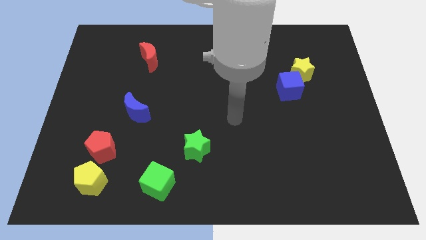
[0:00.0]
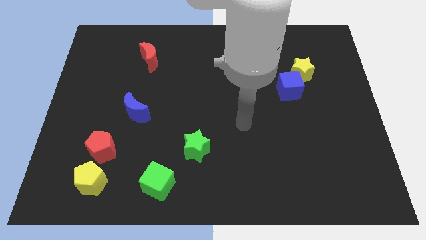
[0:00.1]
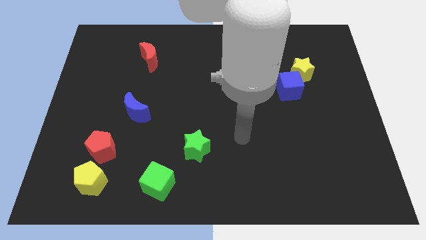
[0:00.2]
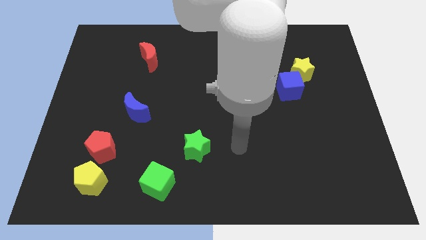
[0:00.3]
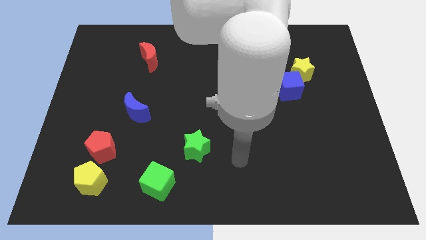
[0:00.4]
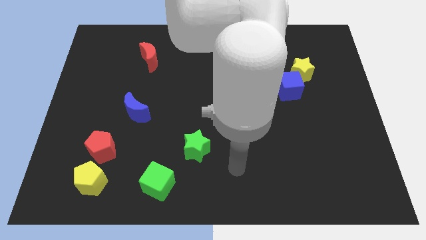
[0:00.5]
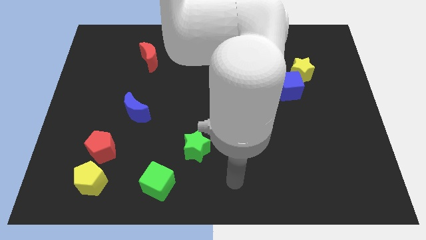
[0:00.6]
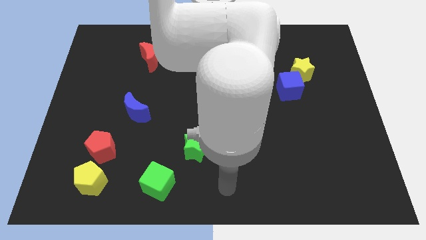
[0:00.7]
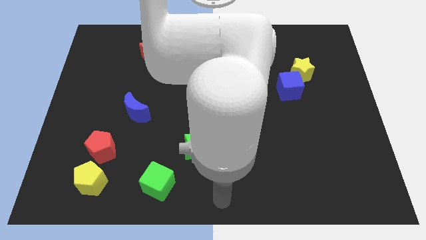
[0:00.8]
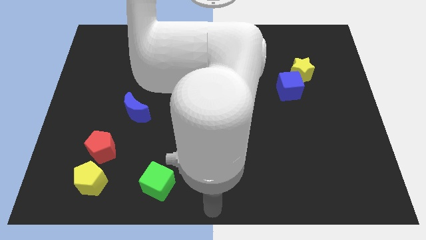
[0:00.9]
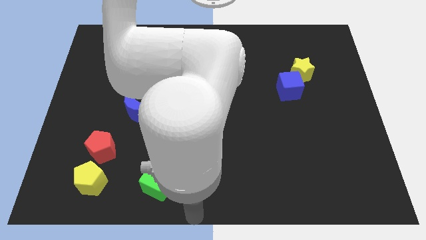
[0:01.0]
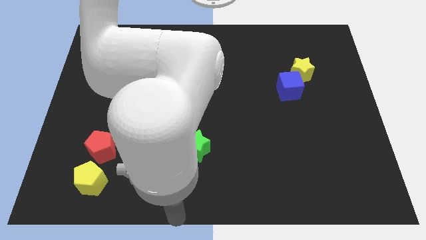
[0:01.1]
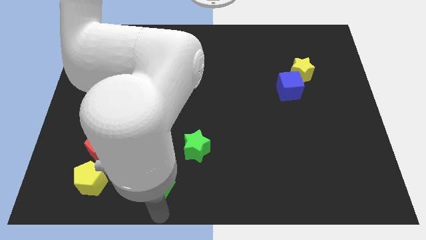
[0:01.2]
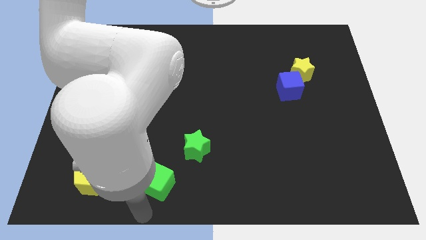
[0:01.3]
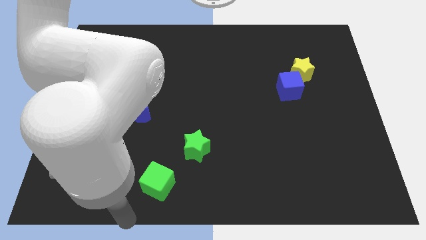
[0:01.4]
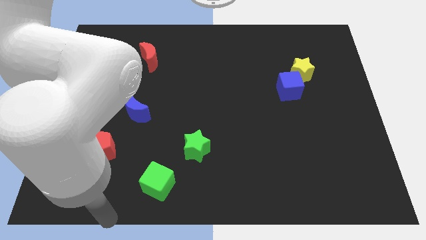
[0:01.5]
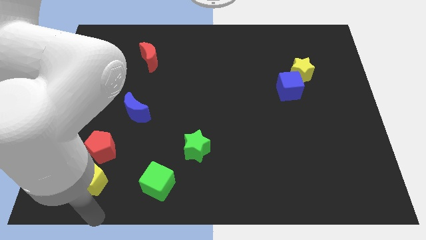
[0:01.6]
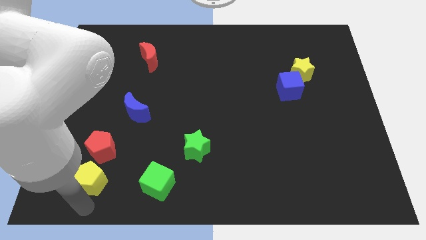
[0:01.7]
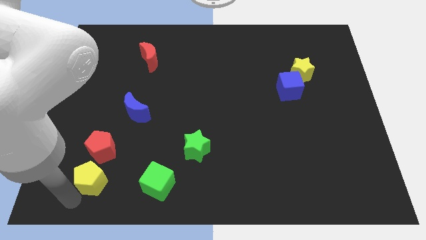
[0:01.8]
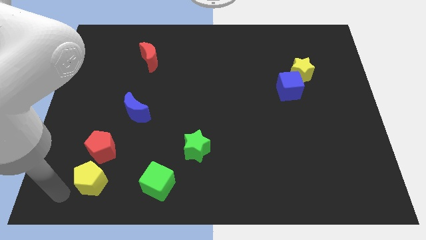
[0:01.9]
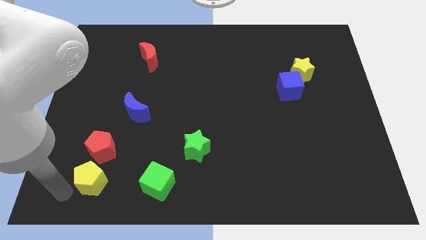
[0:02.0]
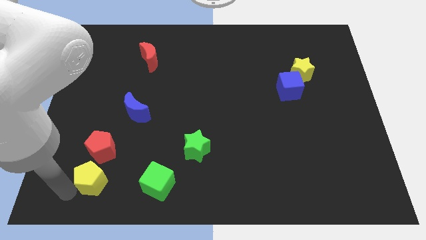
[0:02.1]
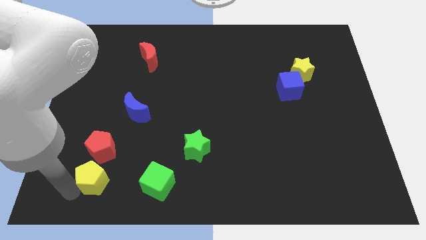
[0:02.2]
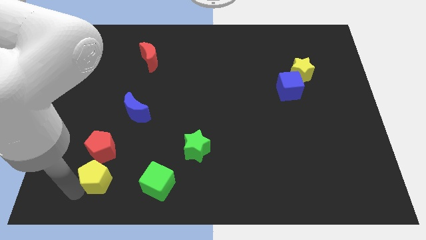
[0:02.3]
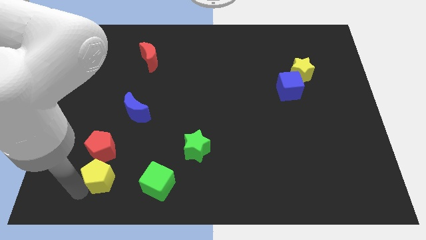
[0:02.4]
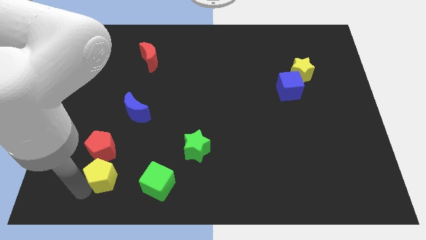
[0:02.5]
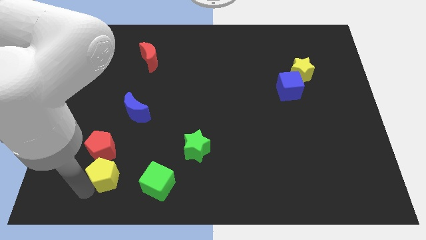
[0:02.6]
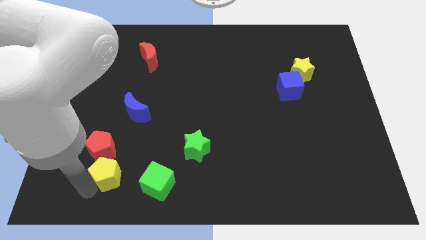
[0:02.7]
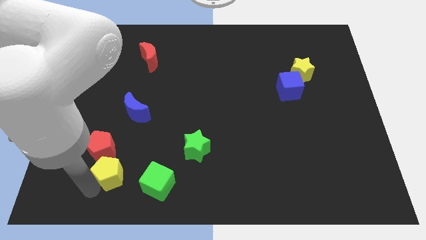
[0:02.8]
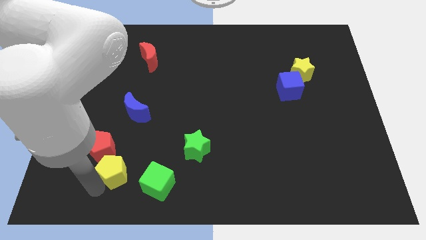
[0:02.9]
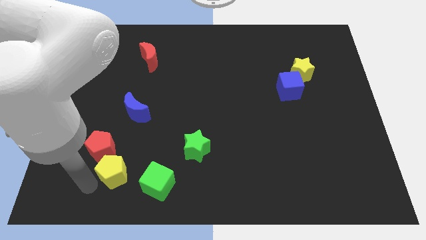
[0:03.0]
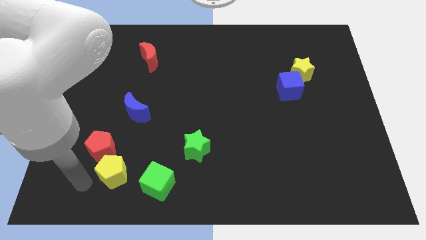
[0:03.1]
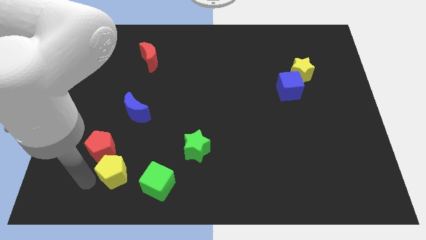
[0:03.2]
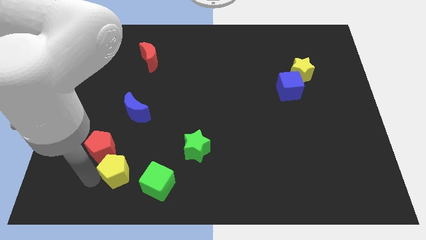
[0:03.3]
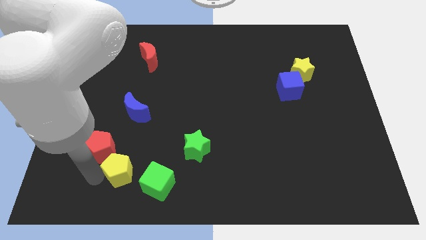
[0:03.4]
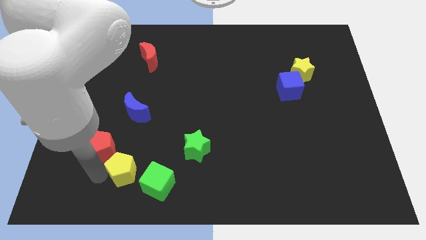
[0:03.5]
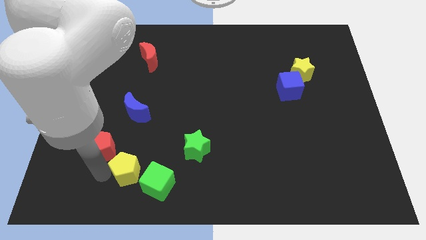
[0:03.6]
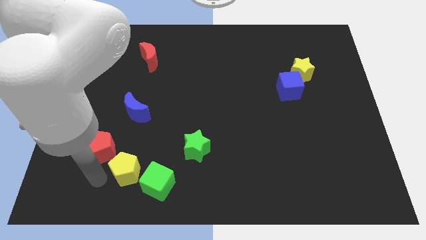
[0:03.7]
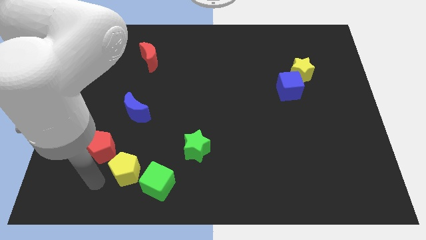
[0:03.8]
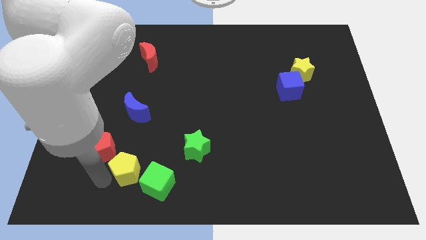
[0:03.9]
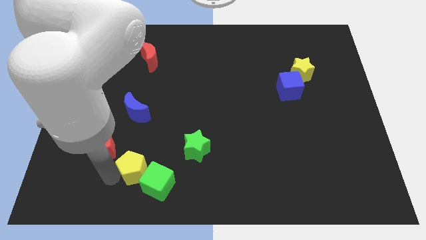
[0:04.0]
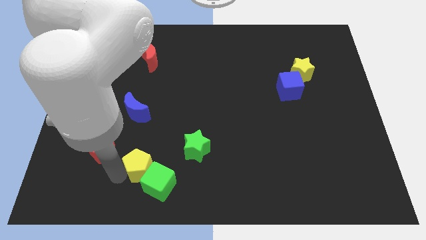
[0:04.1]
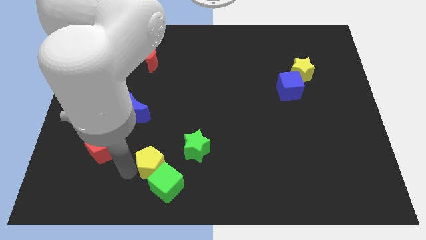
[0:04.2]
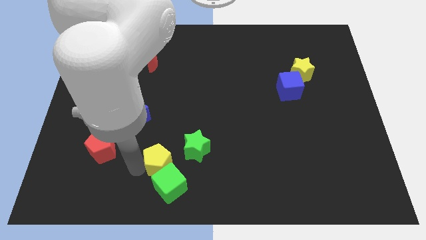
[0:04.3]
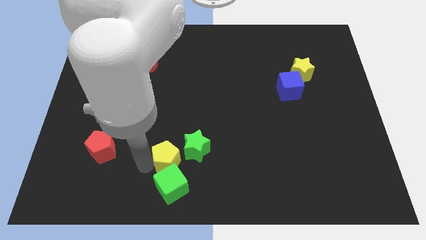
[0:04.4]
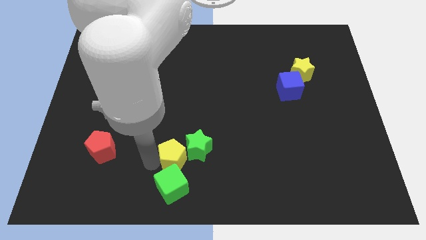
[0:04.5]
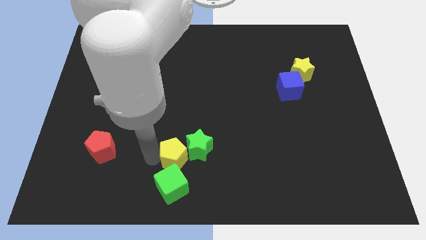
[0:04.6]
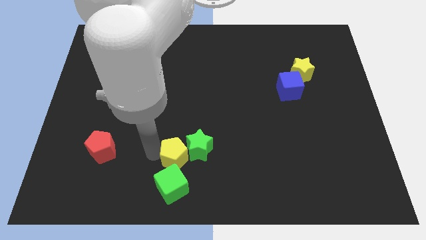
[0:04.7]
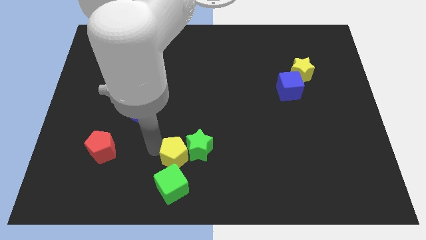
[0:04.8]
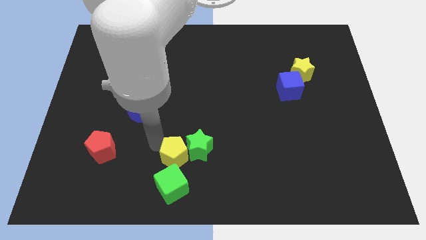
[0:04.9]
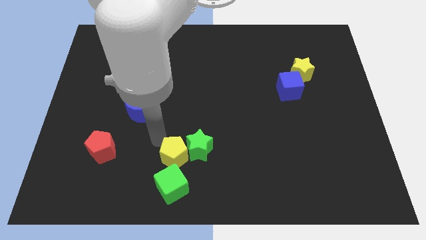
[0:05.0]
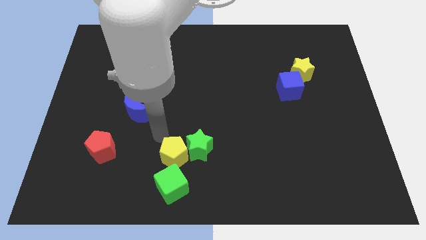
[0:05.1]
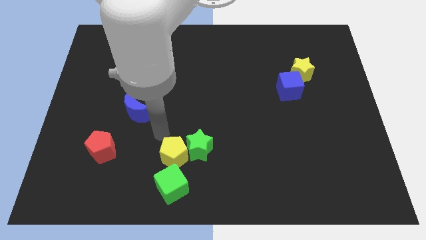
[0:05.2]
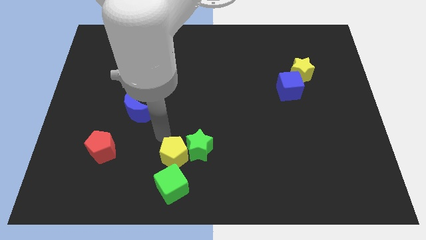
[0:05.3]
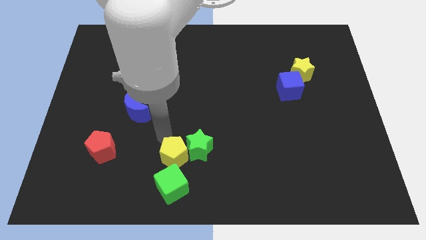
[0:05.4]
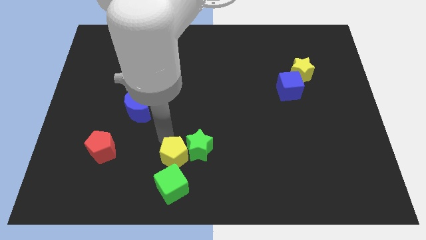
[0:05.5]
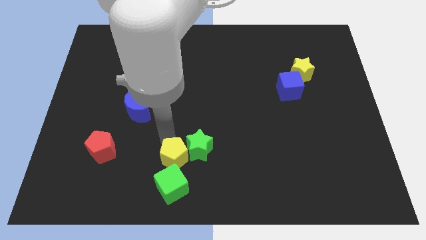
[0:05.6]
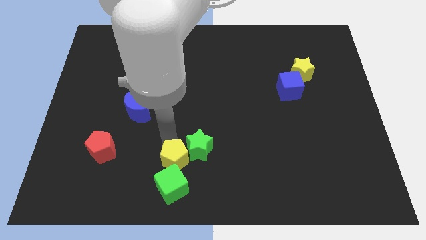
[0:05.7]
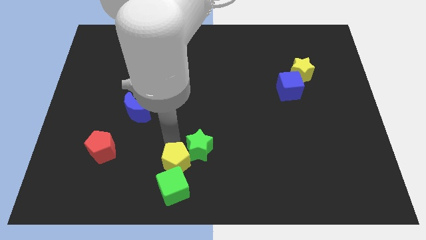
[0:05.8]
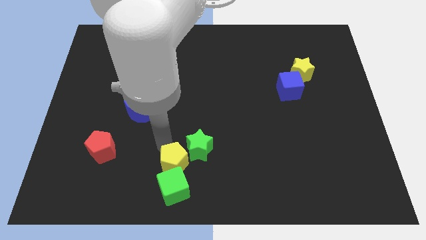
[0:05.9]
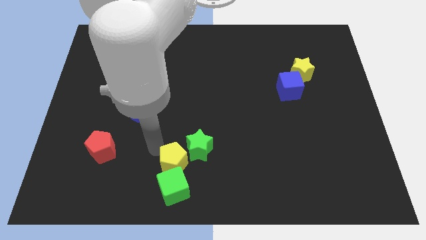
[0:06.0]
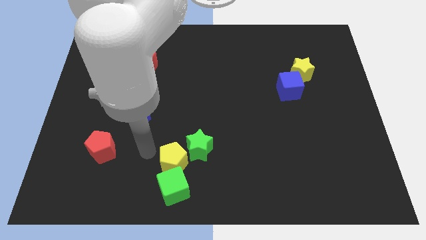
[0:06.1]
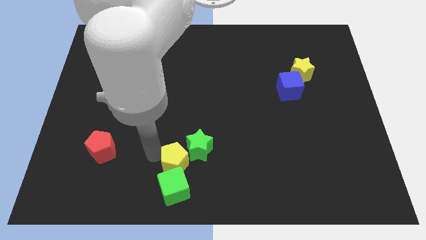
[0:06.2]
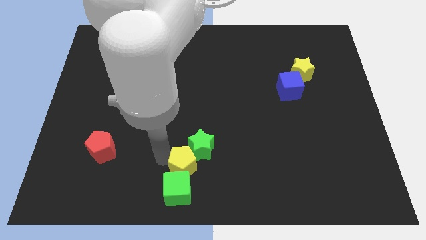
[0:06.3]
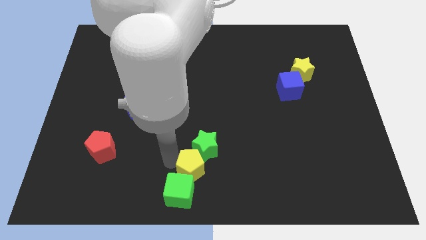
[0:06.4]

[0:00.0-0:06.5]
move the yellow pentagon to the right

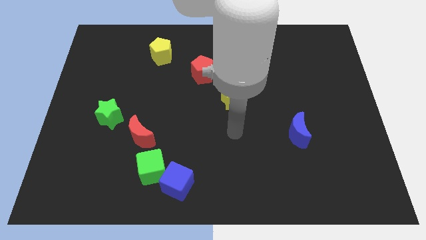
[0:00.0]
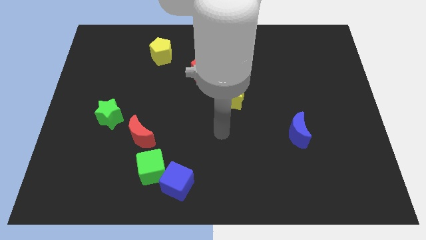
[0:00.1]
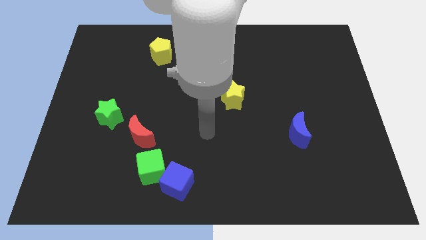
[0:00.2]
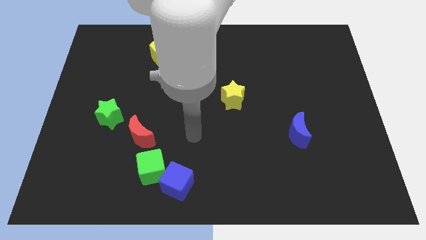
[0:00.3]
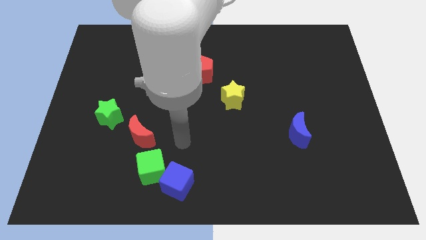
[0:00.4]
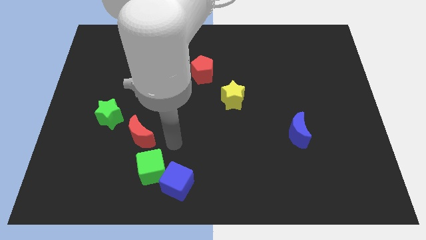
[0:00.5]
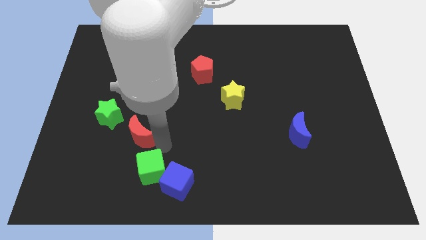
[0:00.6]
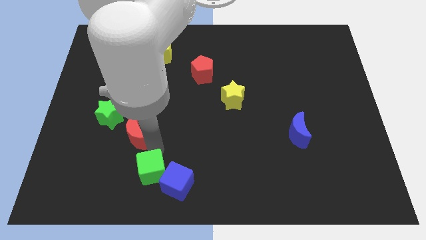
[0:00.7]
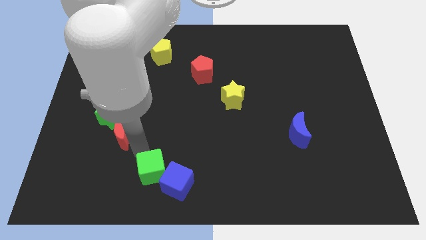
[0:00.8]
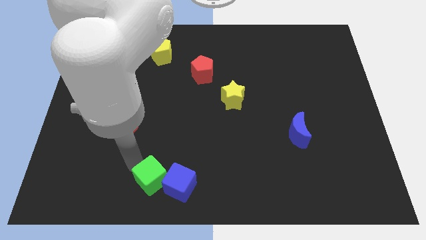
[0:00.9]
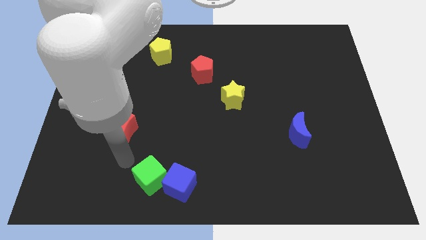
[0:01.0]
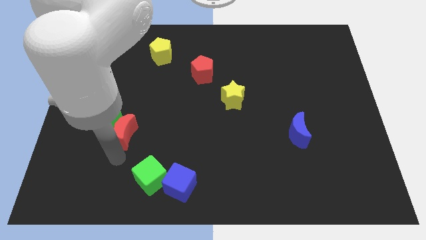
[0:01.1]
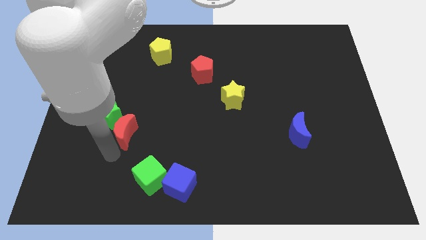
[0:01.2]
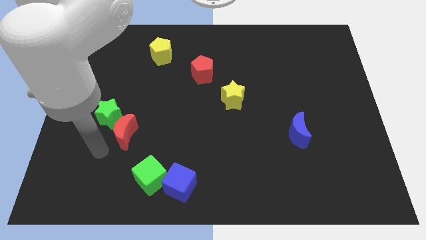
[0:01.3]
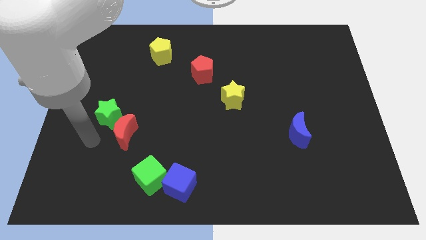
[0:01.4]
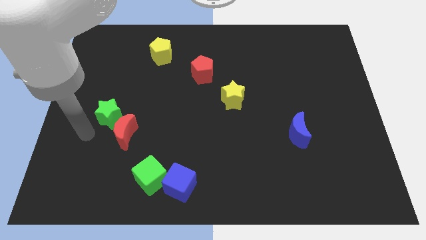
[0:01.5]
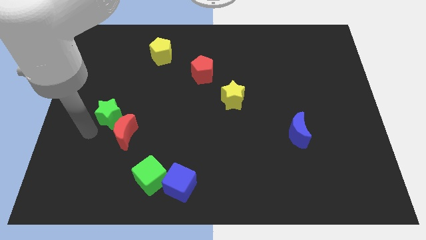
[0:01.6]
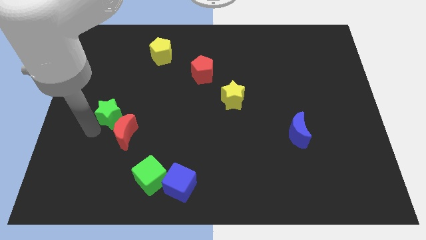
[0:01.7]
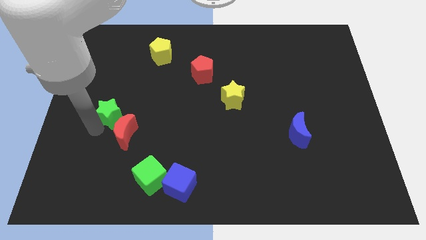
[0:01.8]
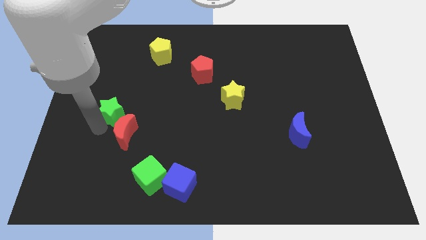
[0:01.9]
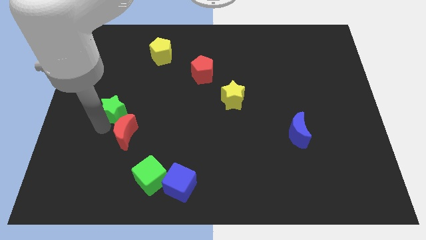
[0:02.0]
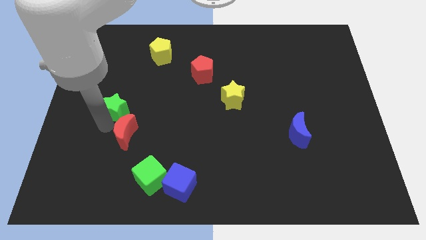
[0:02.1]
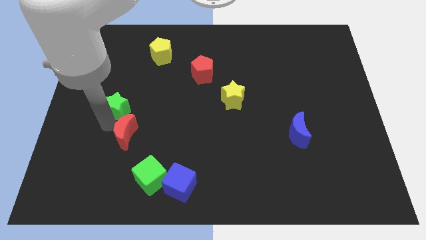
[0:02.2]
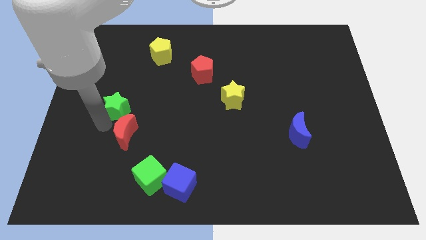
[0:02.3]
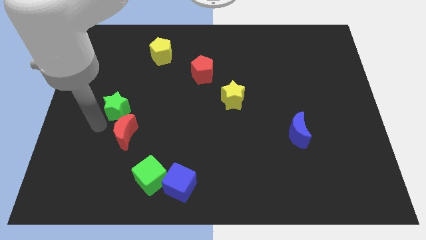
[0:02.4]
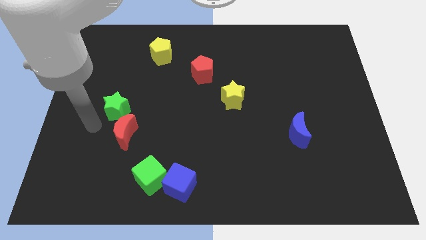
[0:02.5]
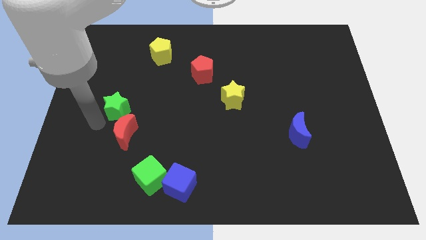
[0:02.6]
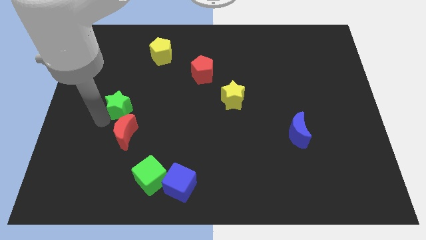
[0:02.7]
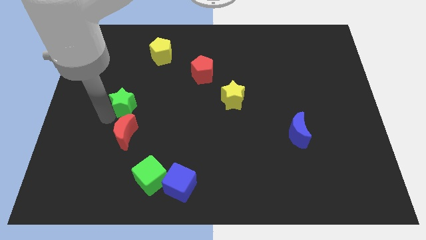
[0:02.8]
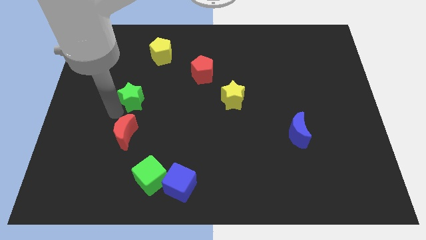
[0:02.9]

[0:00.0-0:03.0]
slightly push the green star up and then right
